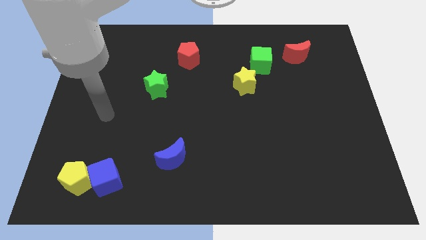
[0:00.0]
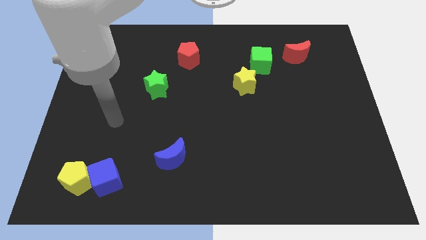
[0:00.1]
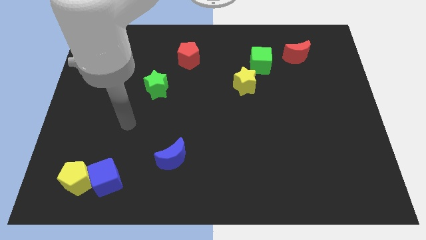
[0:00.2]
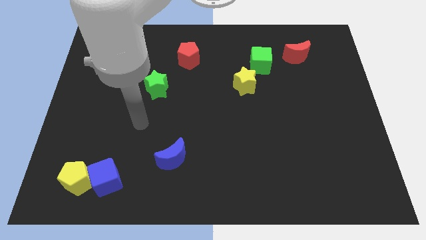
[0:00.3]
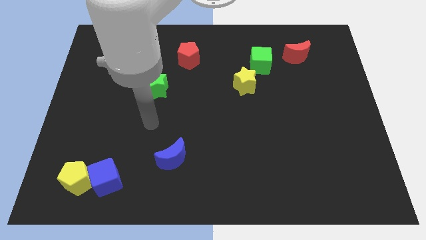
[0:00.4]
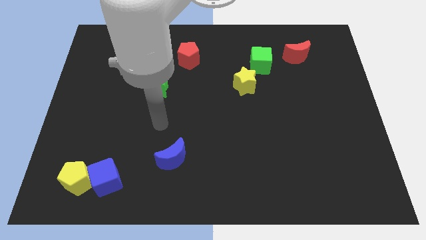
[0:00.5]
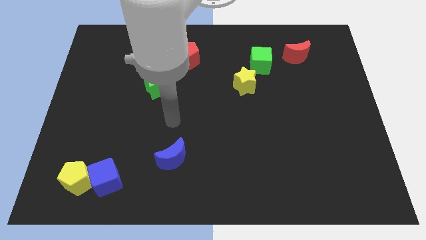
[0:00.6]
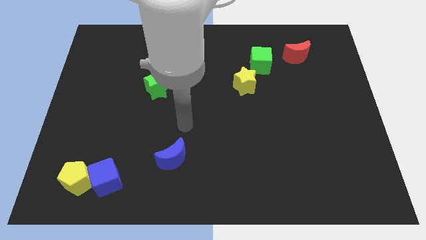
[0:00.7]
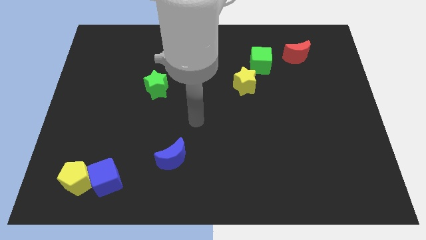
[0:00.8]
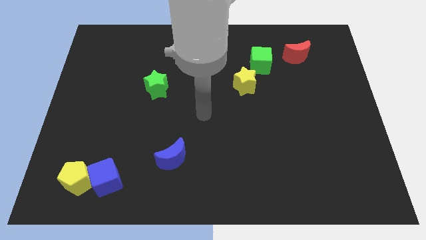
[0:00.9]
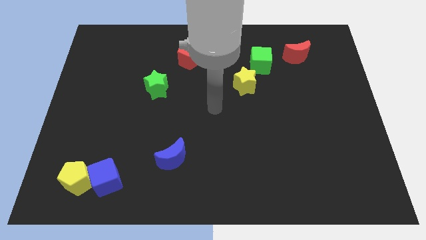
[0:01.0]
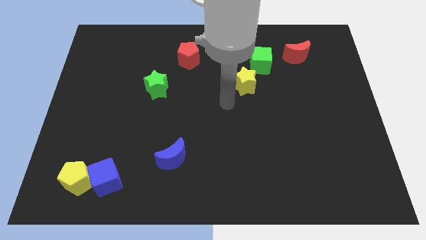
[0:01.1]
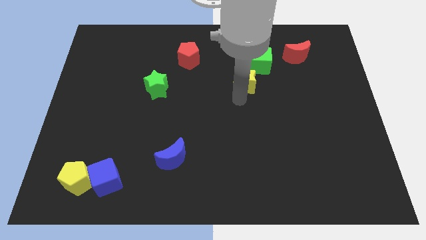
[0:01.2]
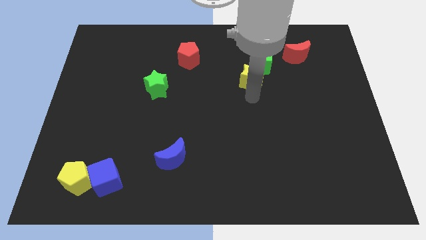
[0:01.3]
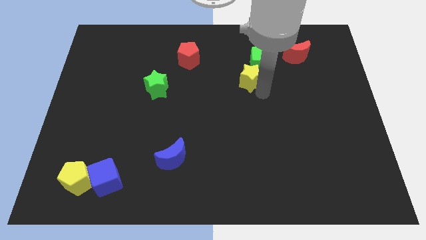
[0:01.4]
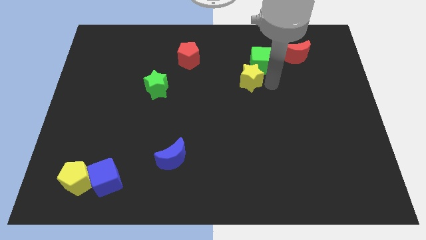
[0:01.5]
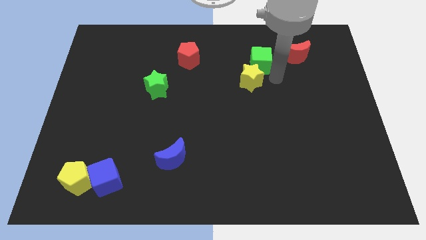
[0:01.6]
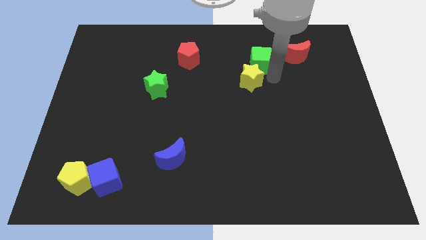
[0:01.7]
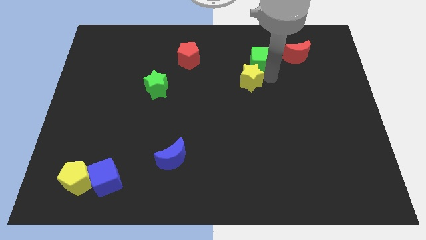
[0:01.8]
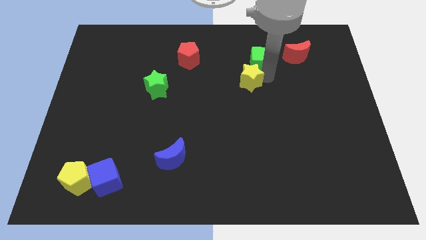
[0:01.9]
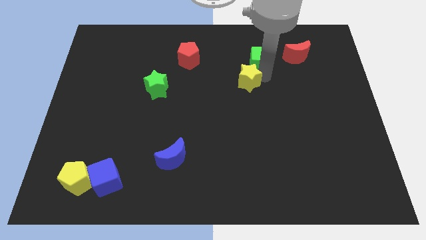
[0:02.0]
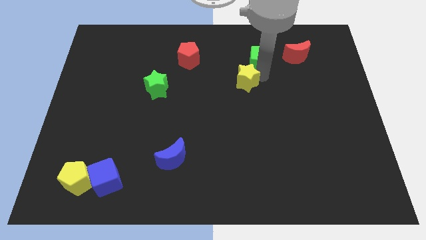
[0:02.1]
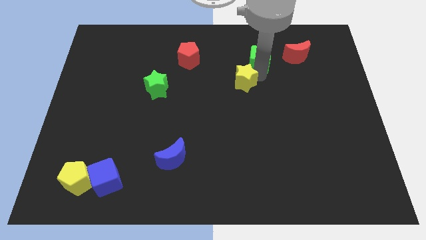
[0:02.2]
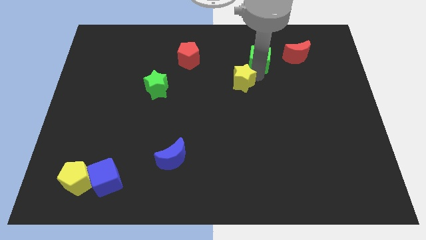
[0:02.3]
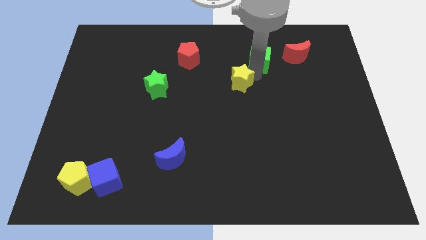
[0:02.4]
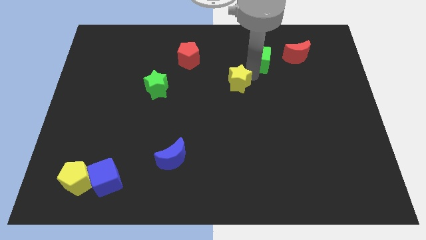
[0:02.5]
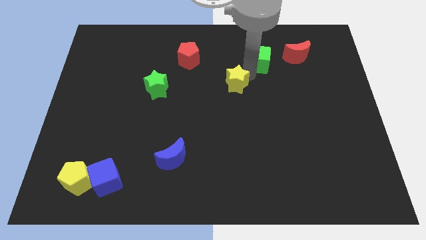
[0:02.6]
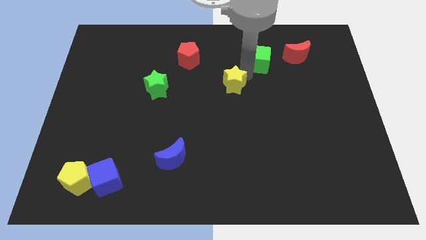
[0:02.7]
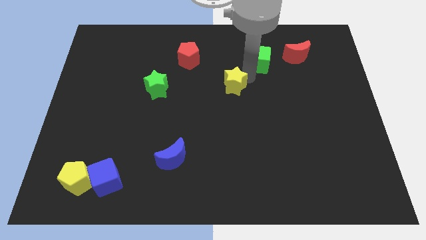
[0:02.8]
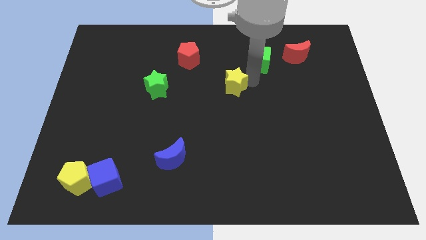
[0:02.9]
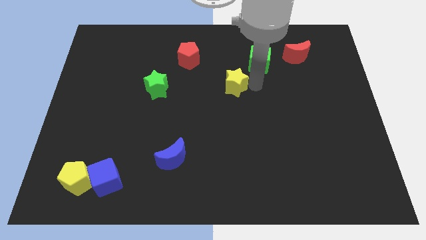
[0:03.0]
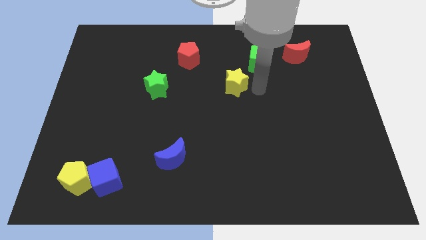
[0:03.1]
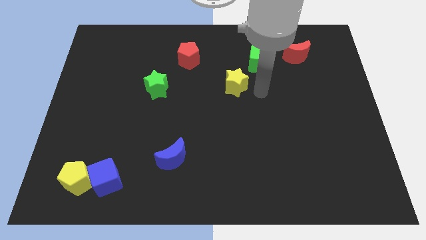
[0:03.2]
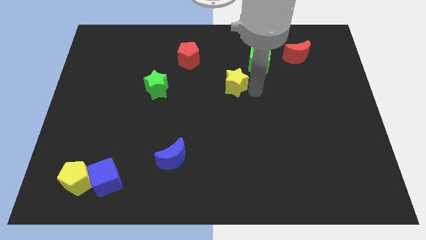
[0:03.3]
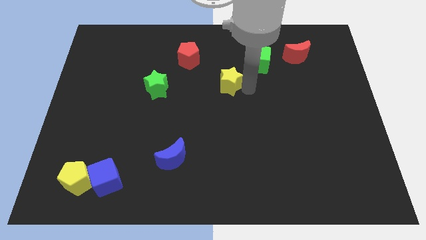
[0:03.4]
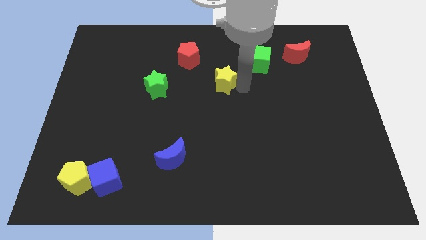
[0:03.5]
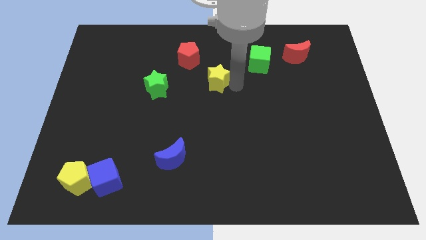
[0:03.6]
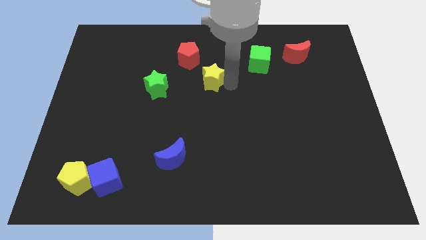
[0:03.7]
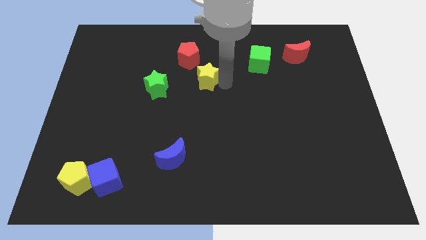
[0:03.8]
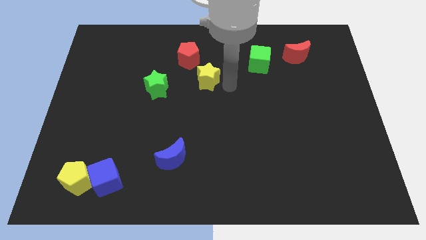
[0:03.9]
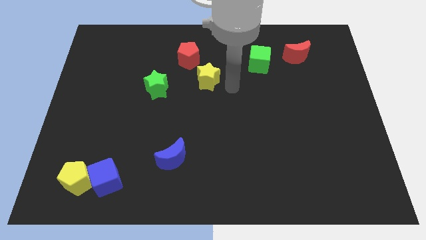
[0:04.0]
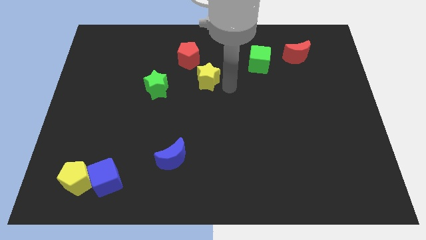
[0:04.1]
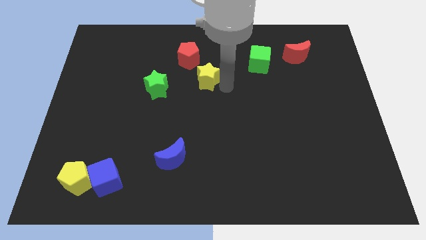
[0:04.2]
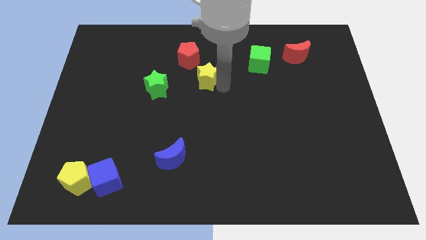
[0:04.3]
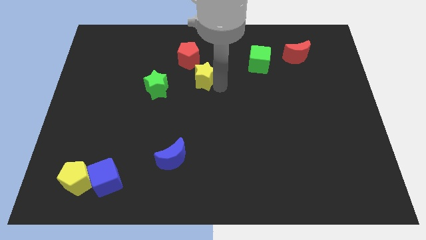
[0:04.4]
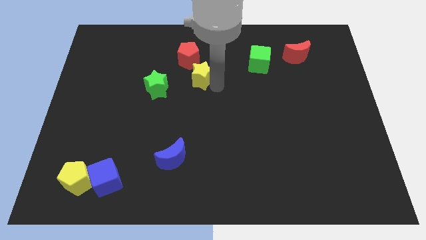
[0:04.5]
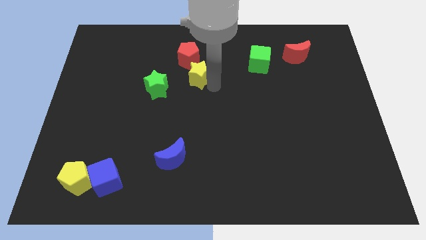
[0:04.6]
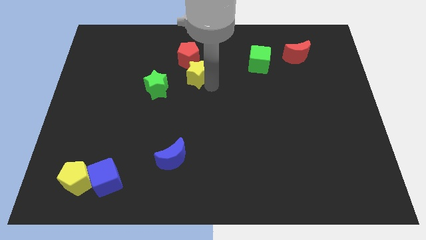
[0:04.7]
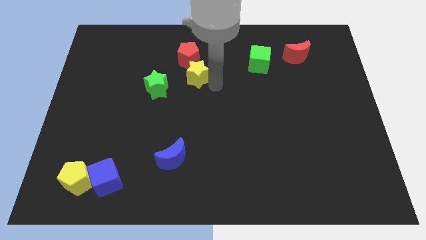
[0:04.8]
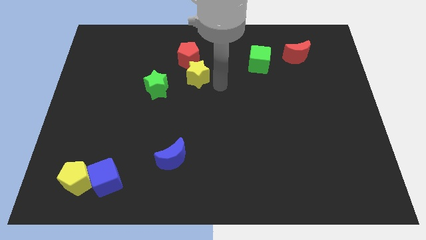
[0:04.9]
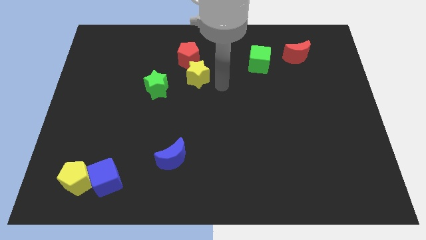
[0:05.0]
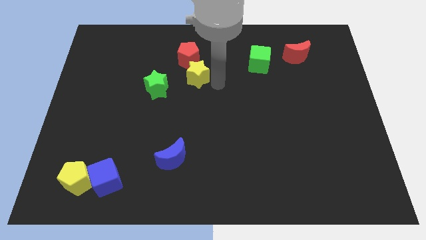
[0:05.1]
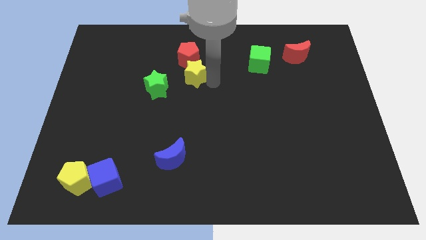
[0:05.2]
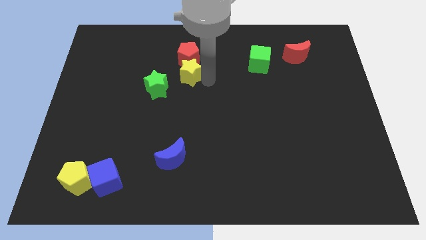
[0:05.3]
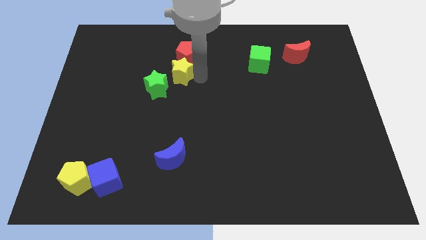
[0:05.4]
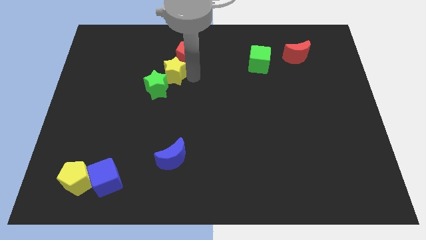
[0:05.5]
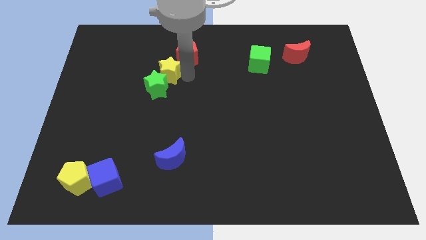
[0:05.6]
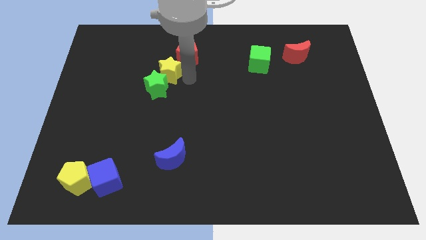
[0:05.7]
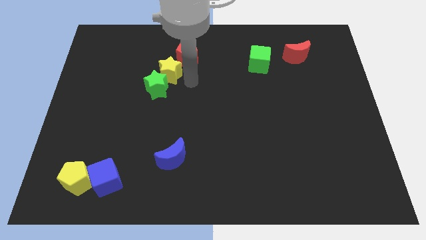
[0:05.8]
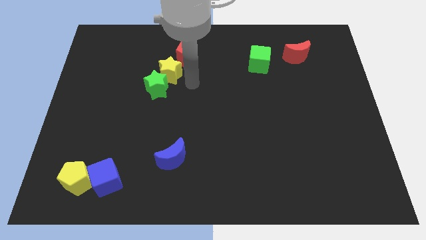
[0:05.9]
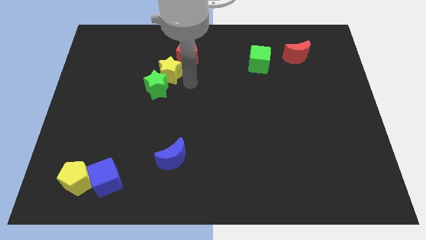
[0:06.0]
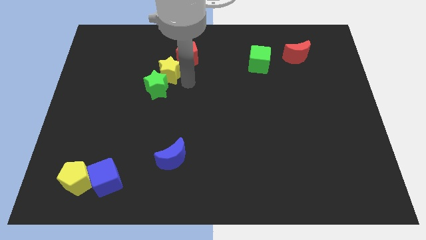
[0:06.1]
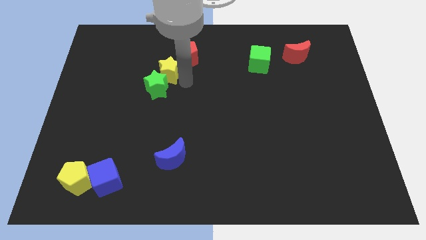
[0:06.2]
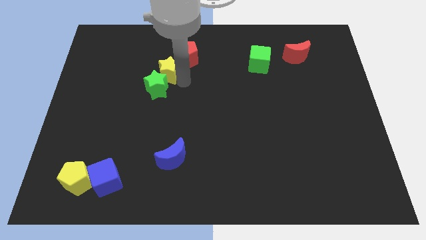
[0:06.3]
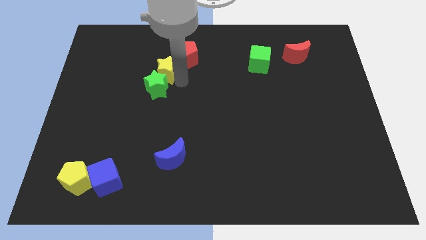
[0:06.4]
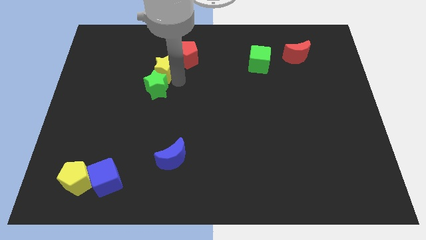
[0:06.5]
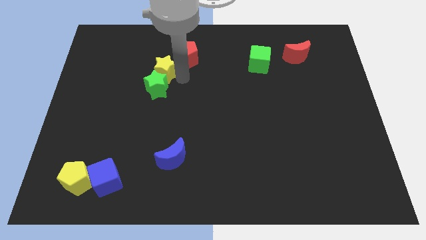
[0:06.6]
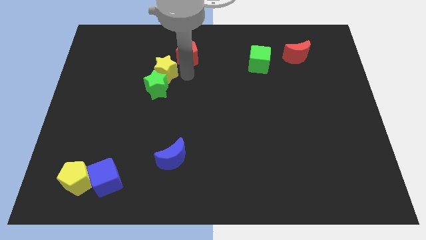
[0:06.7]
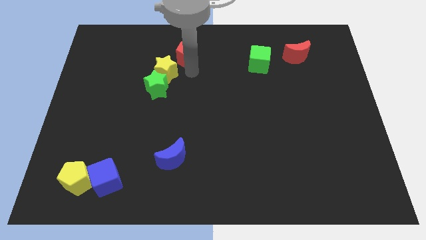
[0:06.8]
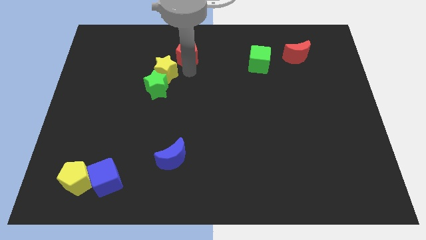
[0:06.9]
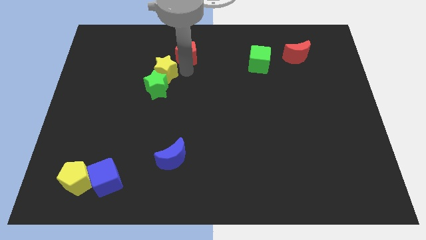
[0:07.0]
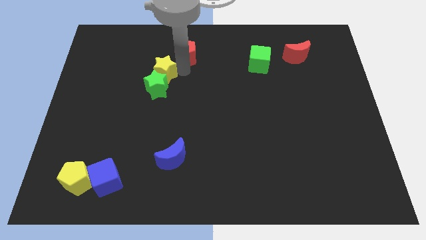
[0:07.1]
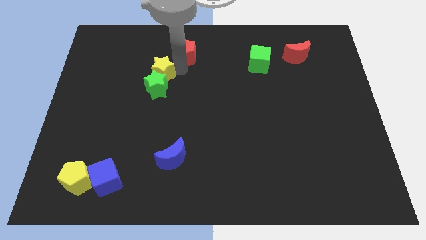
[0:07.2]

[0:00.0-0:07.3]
slide the yellow star to the left

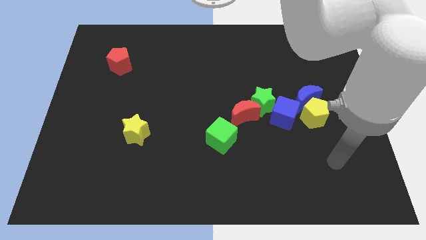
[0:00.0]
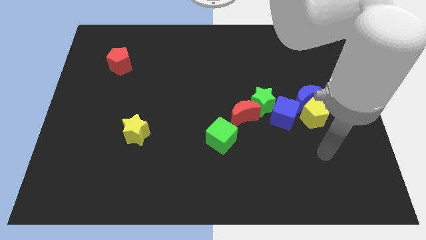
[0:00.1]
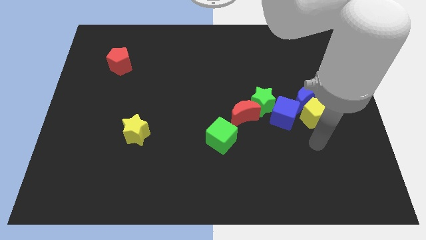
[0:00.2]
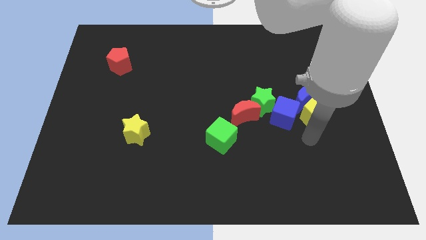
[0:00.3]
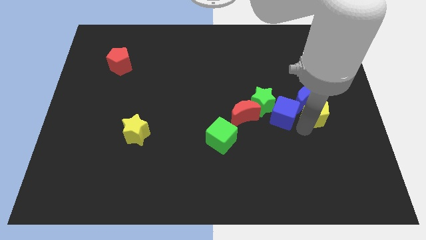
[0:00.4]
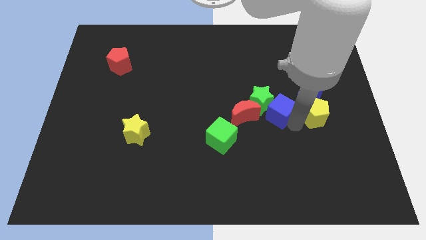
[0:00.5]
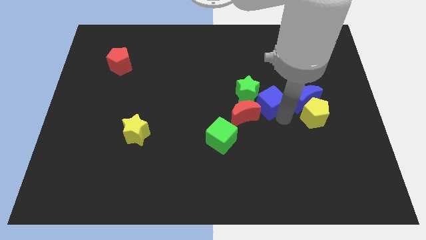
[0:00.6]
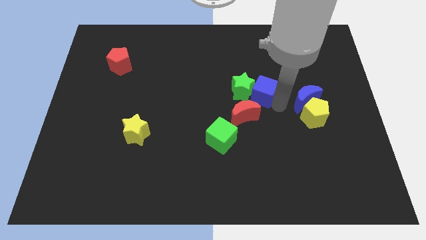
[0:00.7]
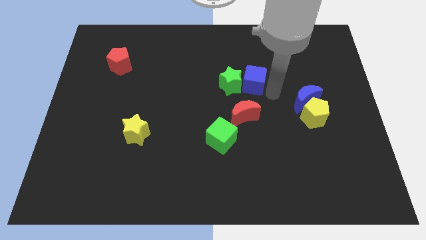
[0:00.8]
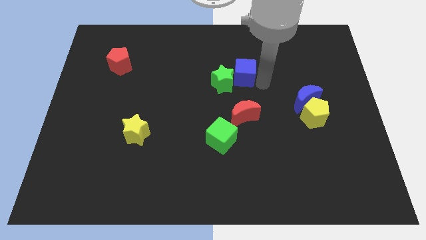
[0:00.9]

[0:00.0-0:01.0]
slide the green star left slightly
